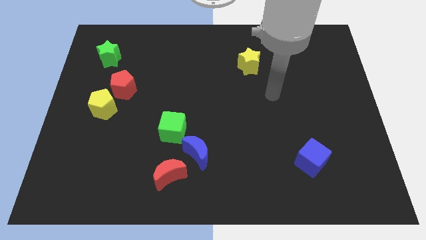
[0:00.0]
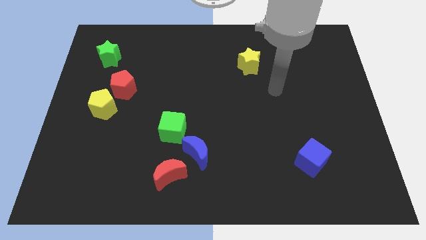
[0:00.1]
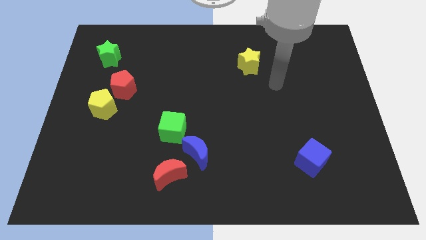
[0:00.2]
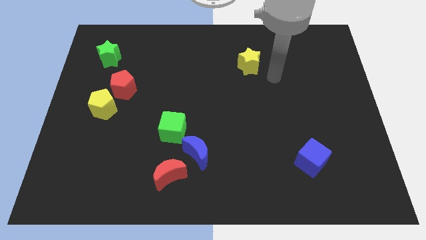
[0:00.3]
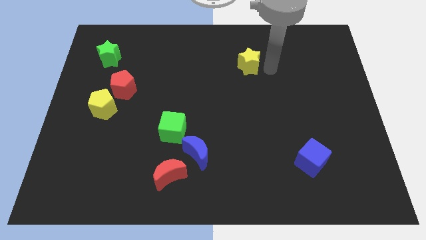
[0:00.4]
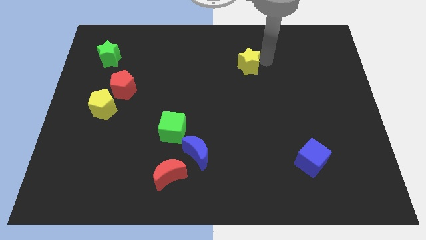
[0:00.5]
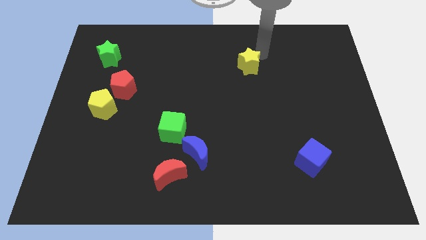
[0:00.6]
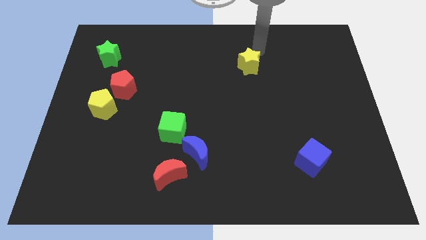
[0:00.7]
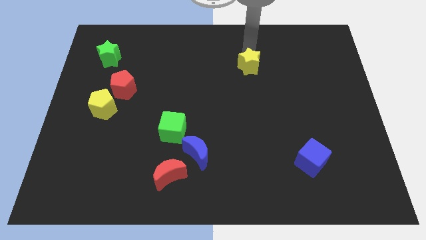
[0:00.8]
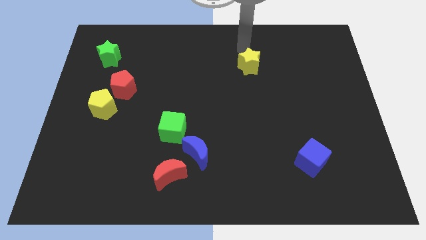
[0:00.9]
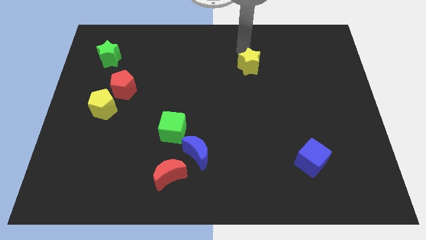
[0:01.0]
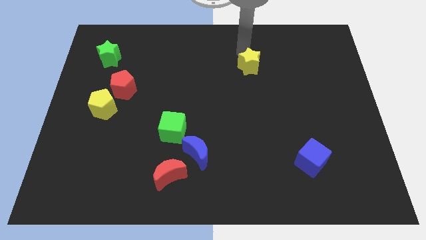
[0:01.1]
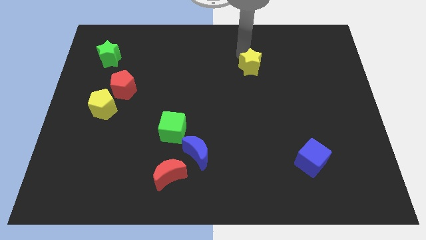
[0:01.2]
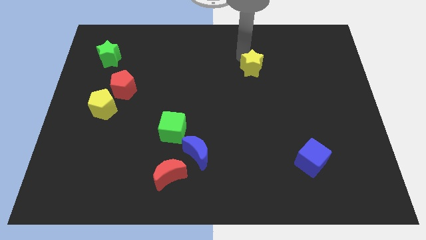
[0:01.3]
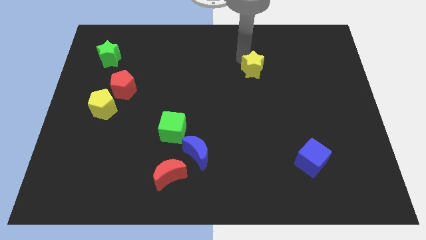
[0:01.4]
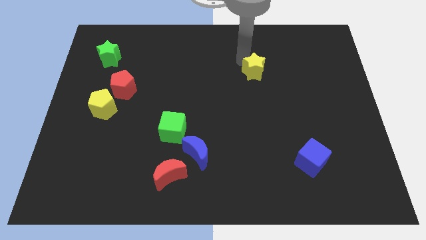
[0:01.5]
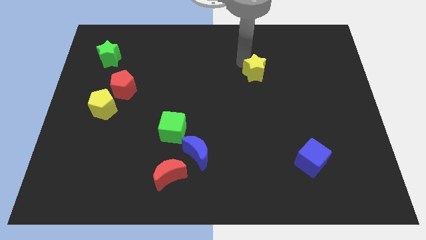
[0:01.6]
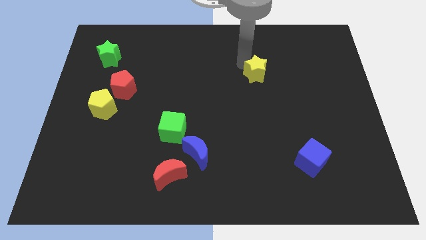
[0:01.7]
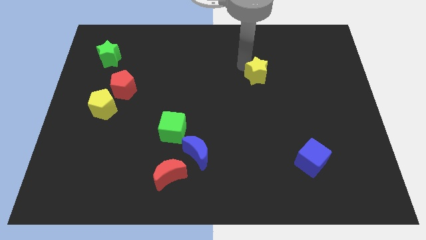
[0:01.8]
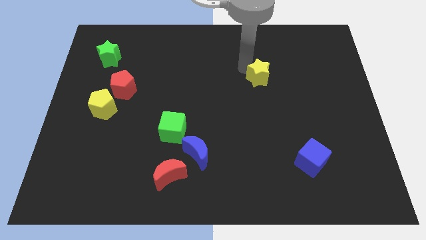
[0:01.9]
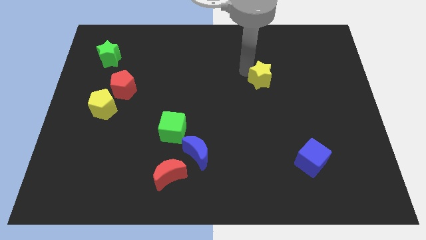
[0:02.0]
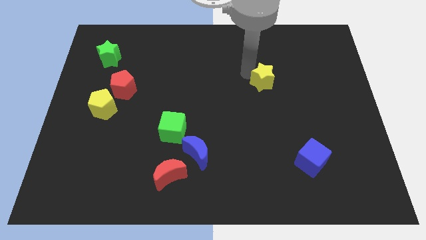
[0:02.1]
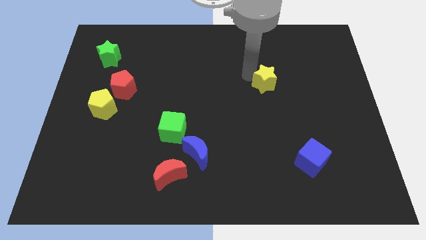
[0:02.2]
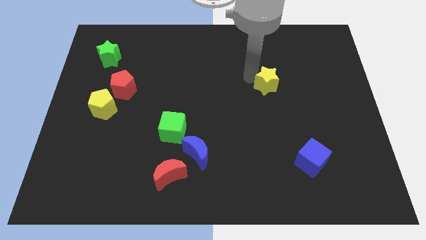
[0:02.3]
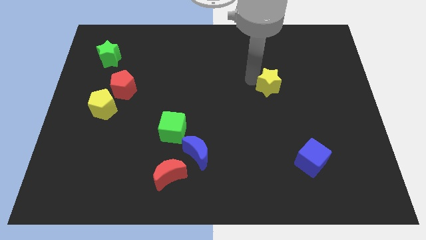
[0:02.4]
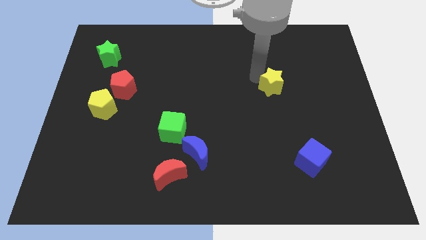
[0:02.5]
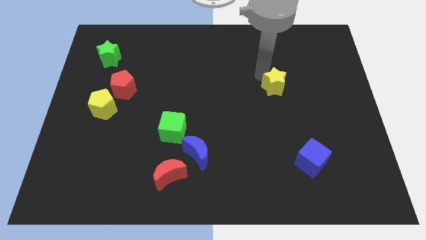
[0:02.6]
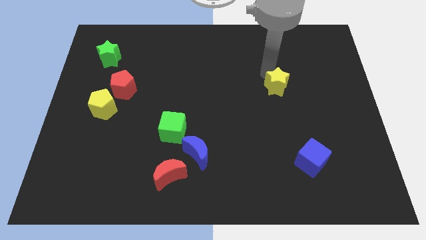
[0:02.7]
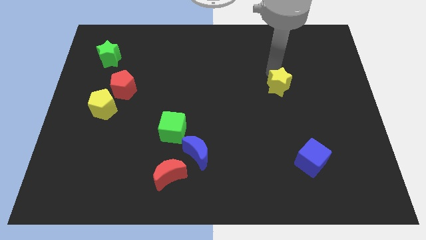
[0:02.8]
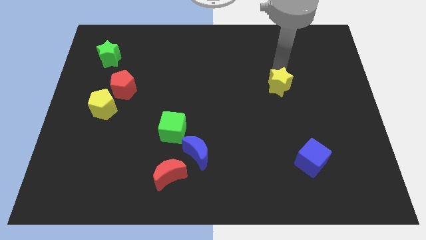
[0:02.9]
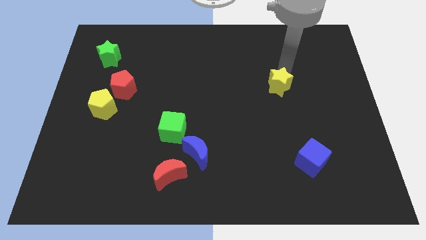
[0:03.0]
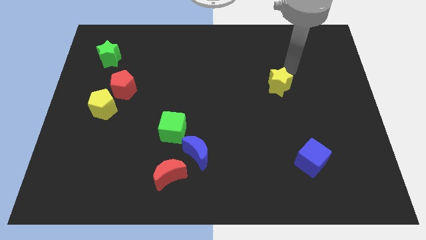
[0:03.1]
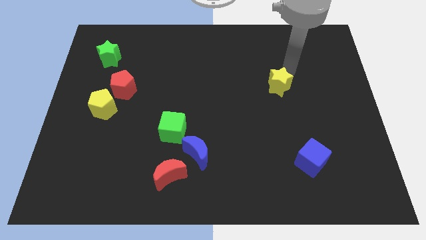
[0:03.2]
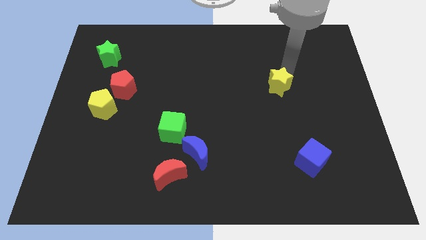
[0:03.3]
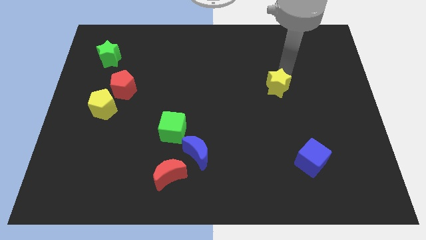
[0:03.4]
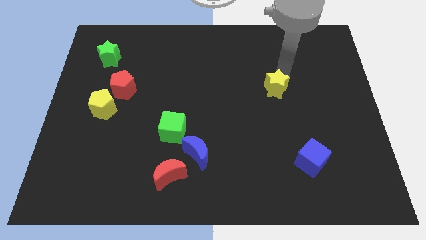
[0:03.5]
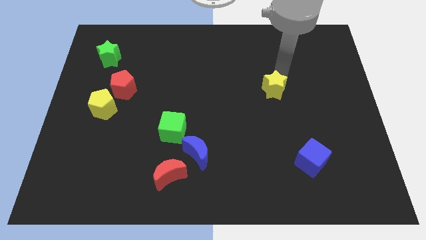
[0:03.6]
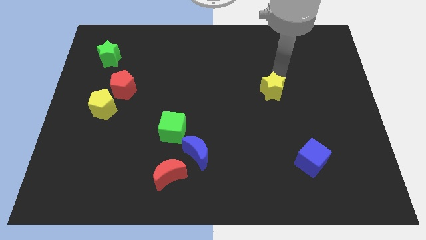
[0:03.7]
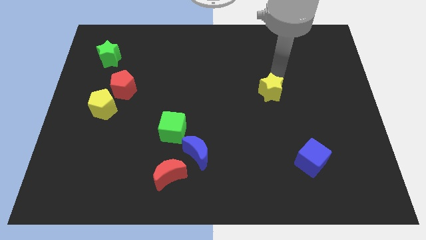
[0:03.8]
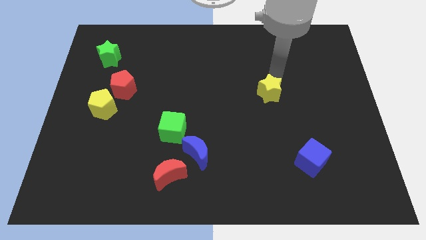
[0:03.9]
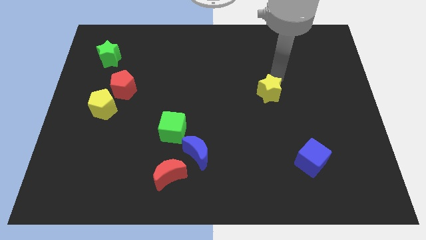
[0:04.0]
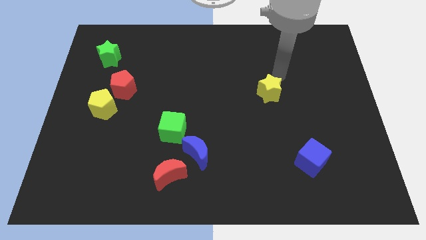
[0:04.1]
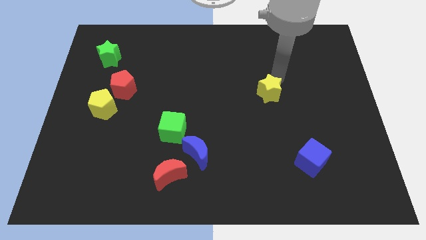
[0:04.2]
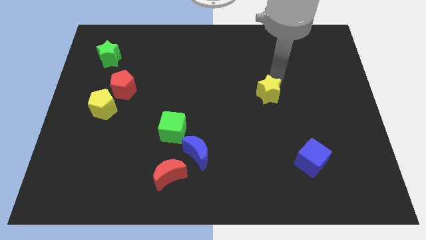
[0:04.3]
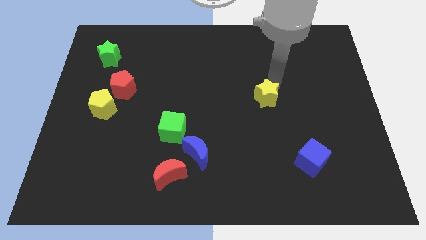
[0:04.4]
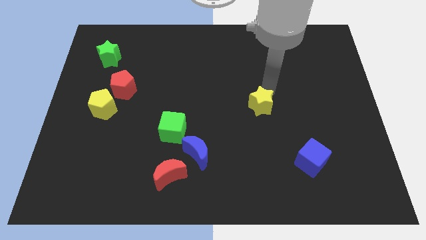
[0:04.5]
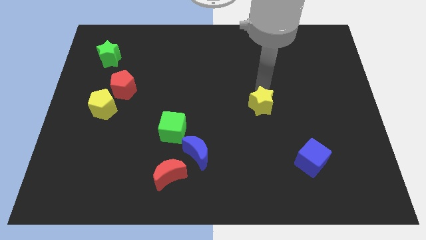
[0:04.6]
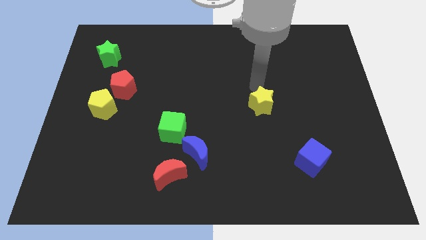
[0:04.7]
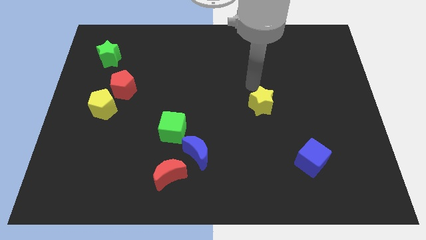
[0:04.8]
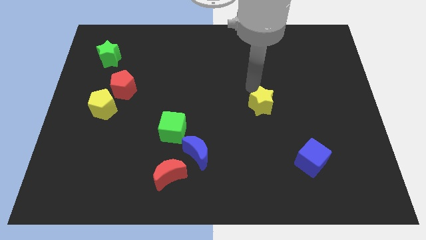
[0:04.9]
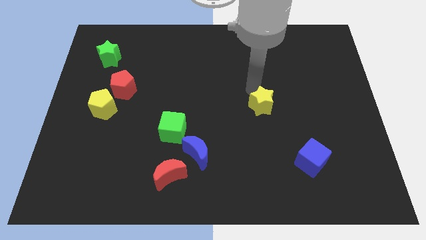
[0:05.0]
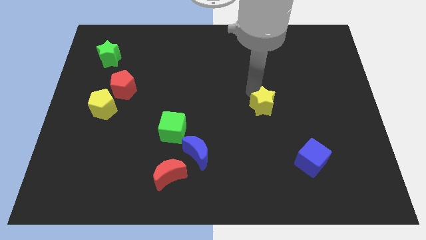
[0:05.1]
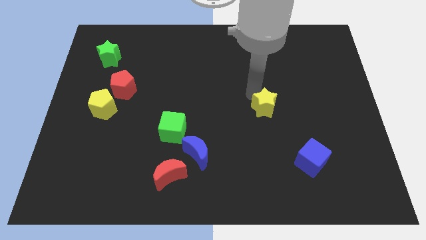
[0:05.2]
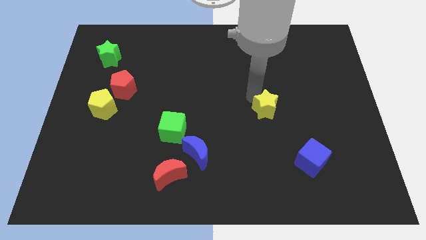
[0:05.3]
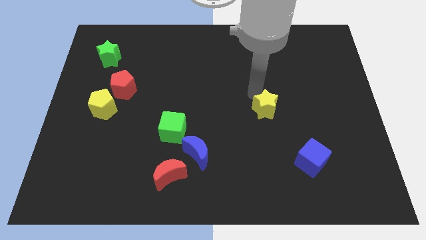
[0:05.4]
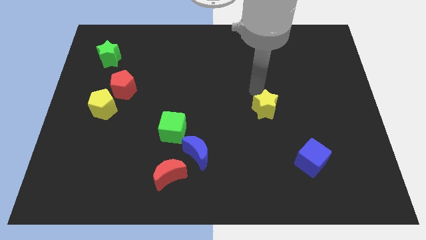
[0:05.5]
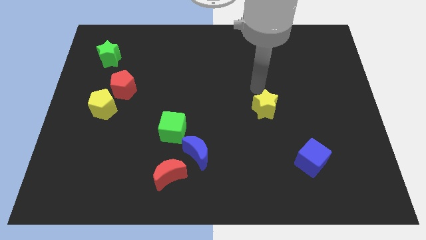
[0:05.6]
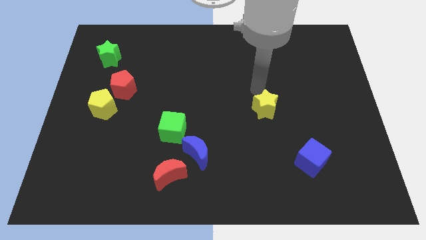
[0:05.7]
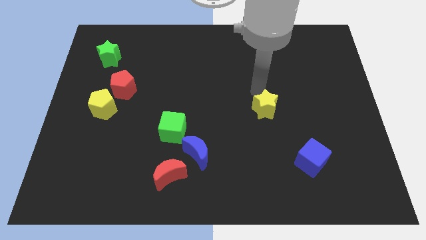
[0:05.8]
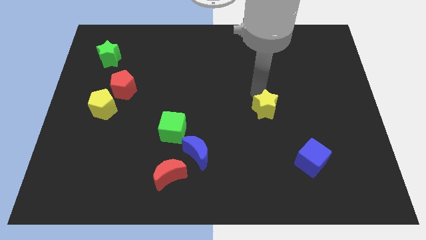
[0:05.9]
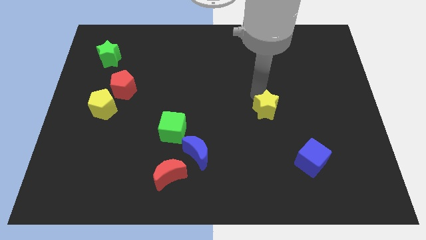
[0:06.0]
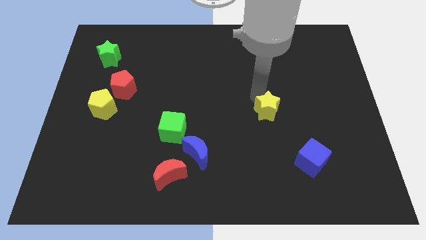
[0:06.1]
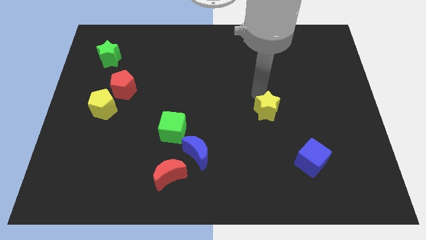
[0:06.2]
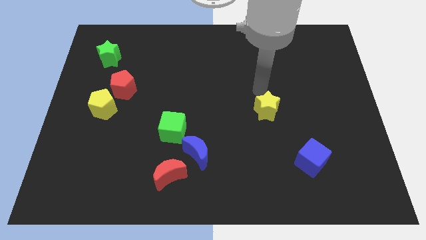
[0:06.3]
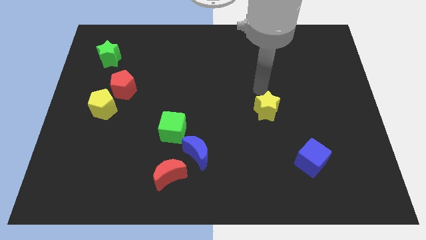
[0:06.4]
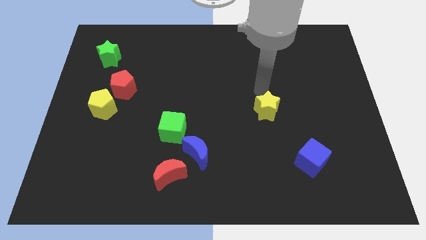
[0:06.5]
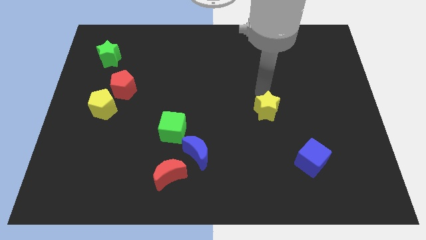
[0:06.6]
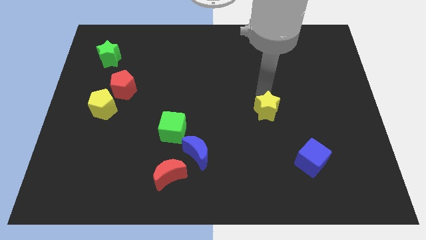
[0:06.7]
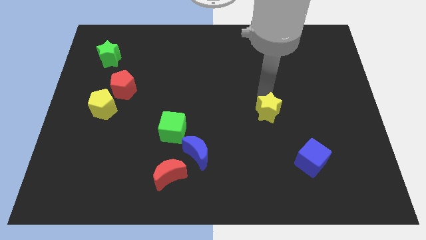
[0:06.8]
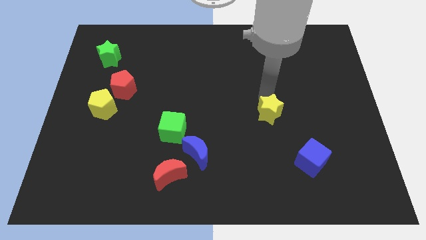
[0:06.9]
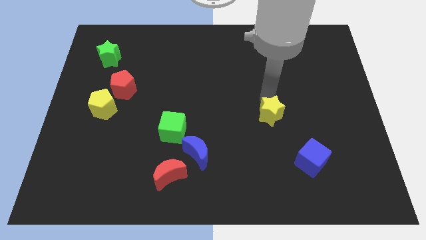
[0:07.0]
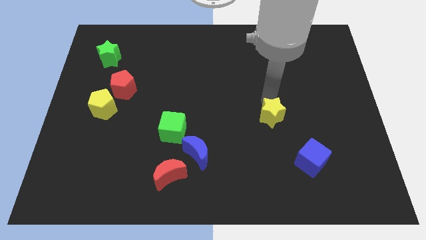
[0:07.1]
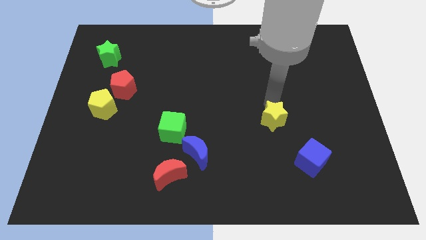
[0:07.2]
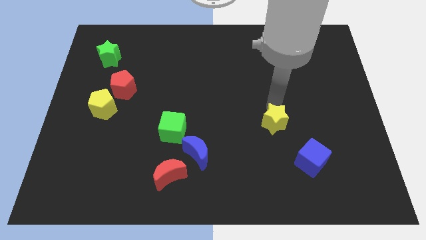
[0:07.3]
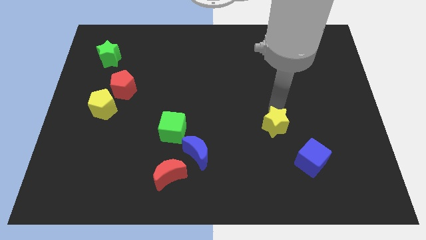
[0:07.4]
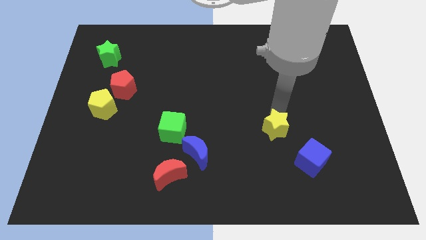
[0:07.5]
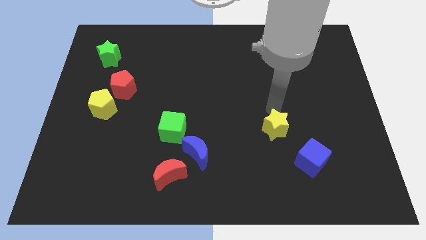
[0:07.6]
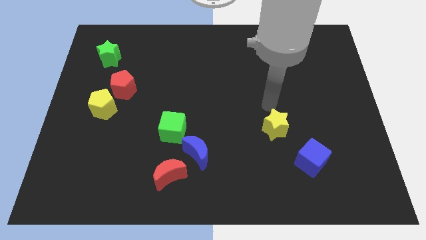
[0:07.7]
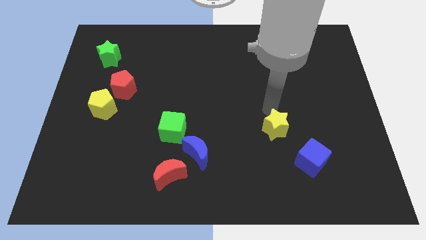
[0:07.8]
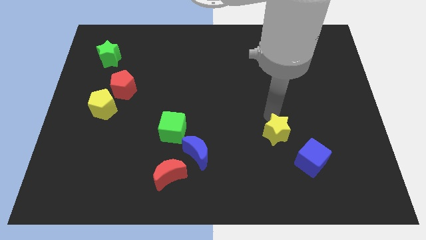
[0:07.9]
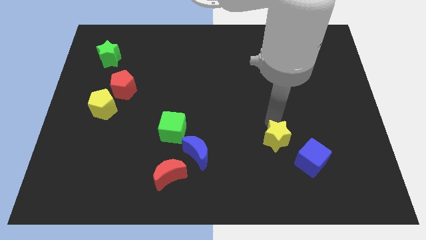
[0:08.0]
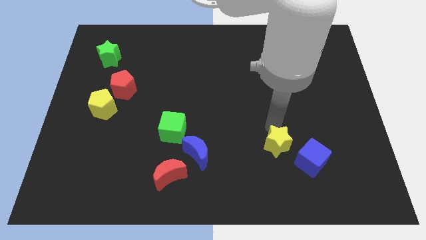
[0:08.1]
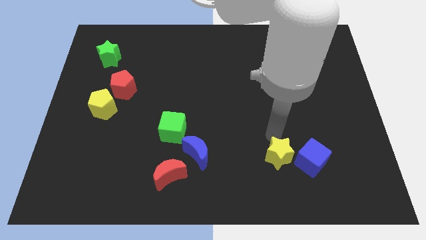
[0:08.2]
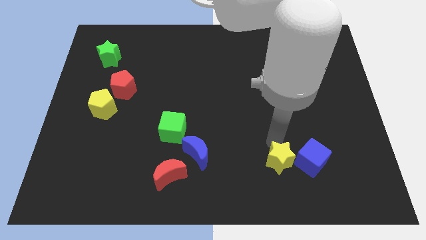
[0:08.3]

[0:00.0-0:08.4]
move the yellow star diagonally down and to the left of the blue cube
